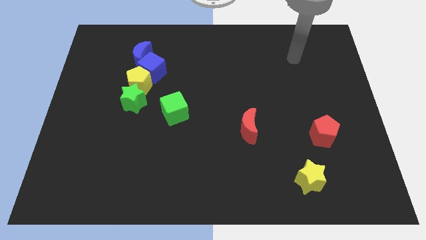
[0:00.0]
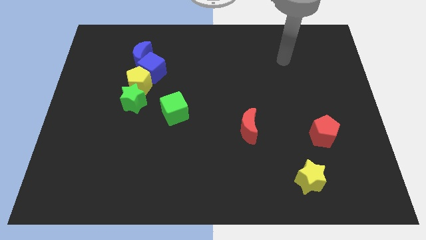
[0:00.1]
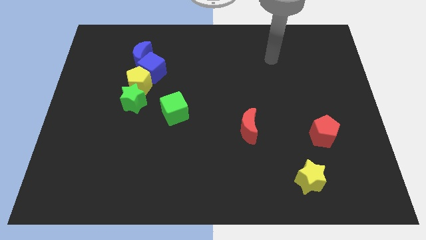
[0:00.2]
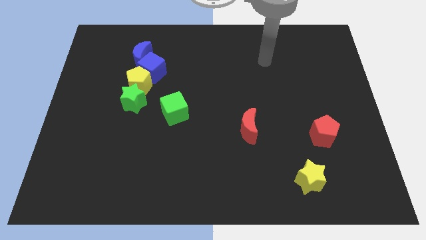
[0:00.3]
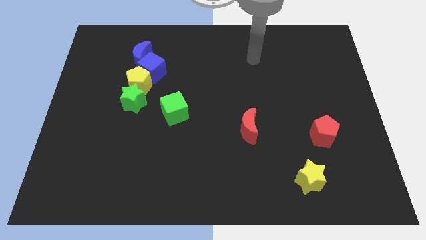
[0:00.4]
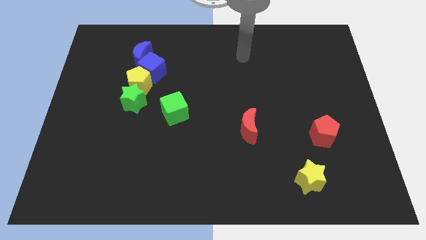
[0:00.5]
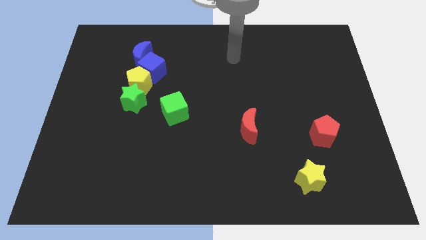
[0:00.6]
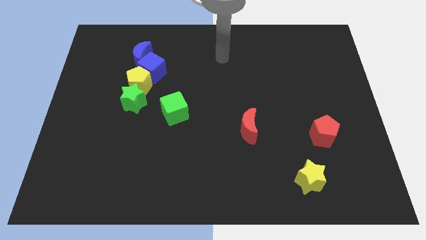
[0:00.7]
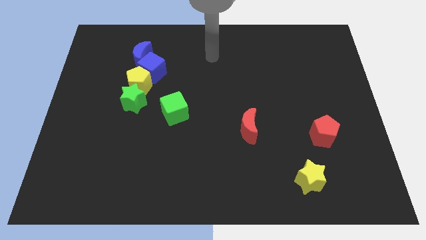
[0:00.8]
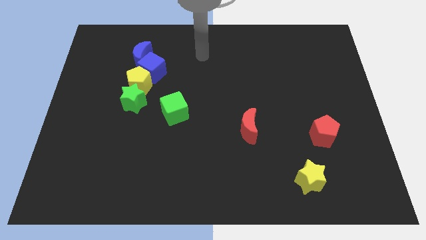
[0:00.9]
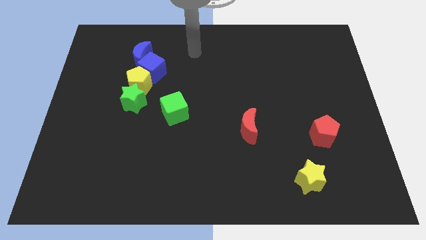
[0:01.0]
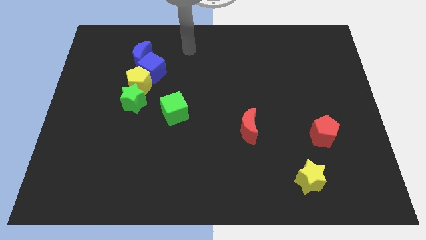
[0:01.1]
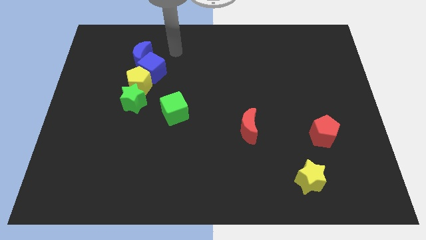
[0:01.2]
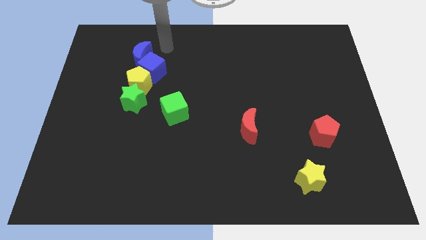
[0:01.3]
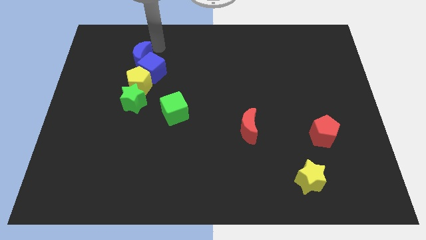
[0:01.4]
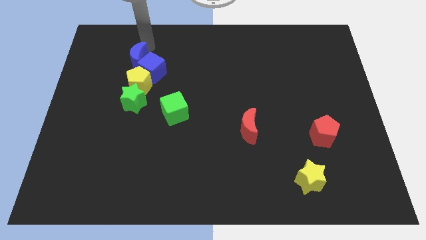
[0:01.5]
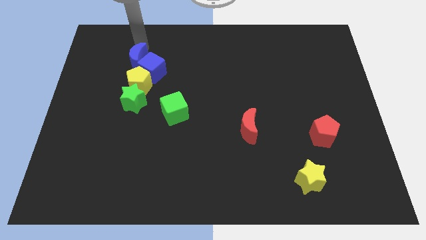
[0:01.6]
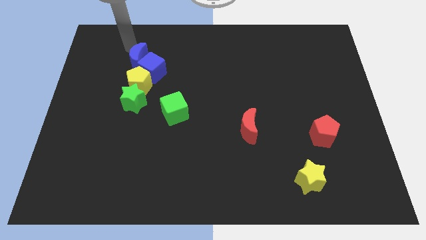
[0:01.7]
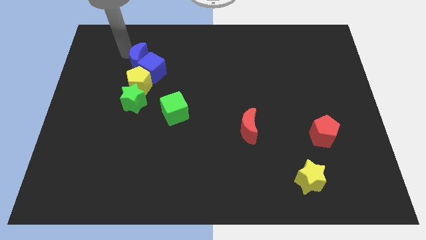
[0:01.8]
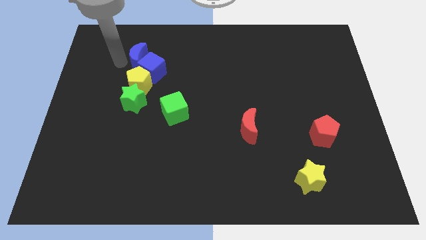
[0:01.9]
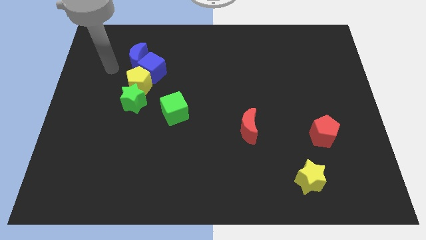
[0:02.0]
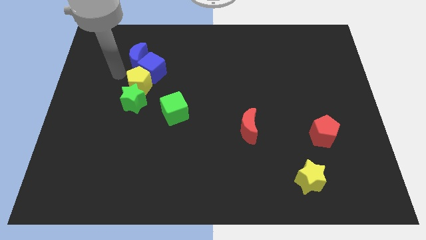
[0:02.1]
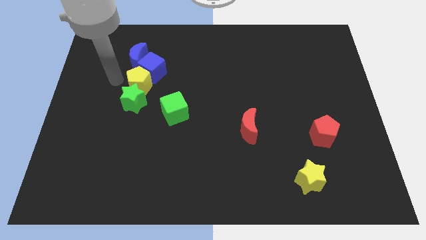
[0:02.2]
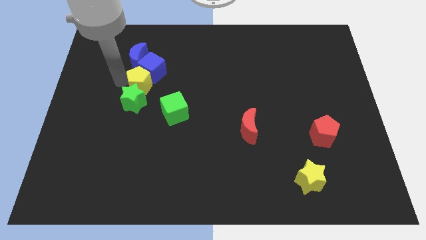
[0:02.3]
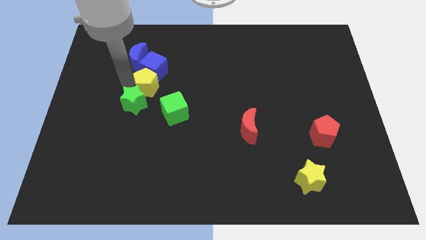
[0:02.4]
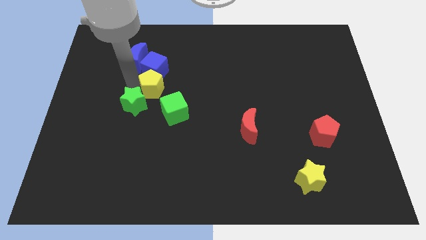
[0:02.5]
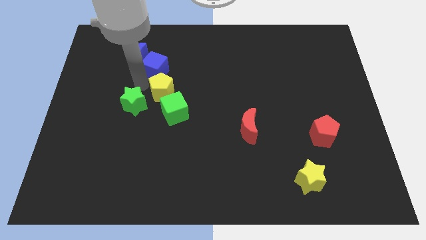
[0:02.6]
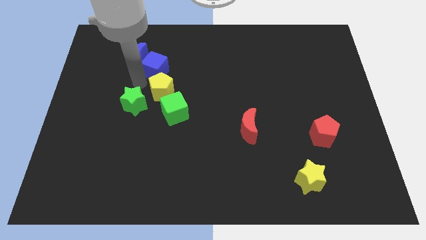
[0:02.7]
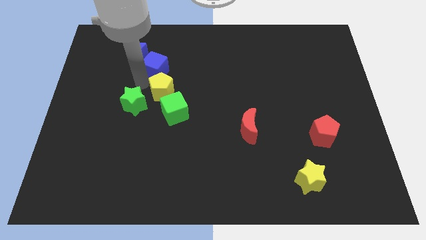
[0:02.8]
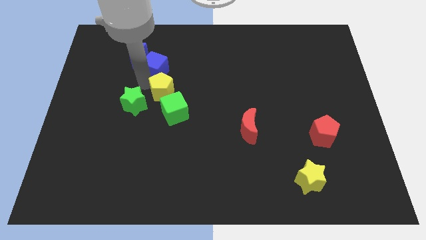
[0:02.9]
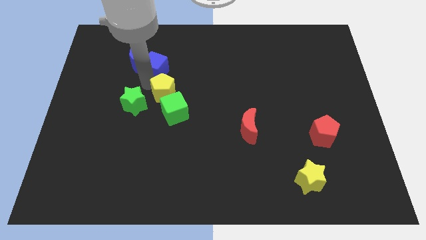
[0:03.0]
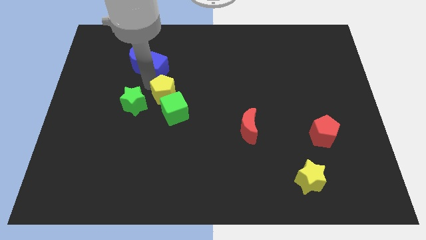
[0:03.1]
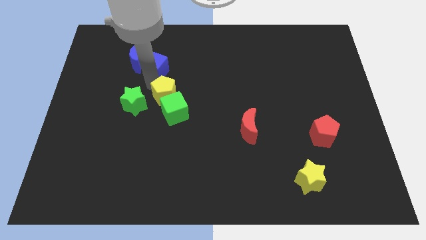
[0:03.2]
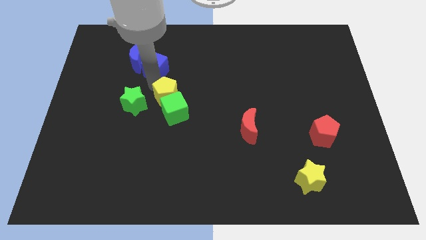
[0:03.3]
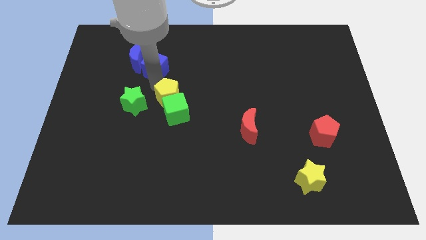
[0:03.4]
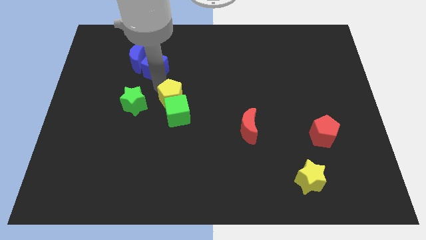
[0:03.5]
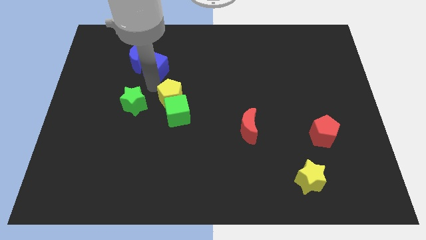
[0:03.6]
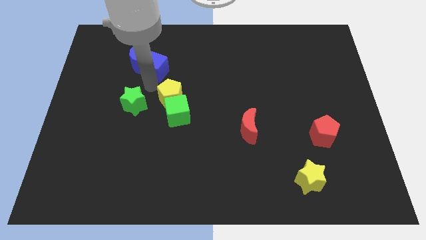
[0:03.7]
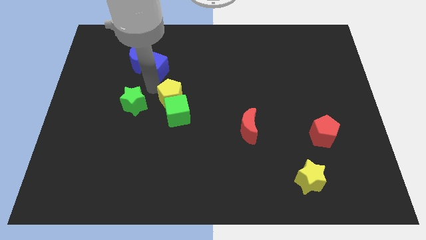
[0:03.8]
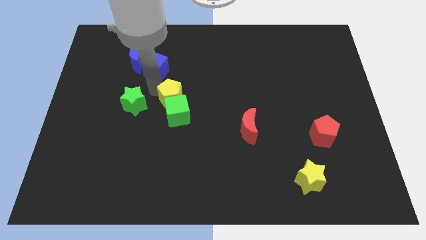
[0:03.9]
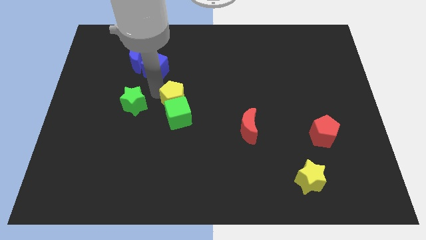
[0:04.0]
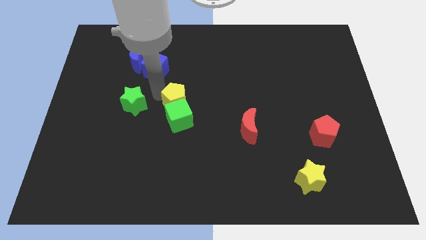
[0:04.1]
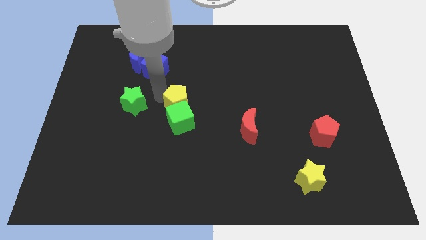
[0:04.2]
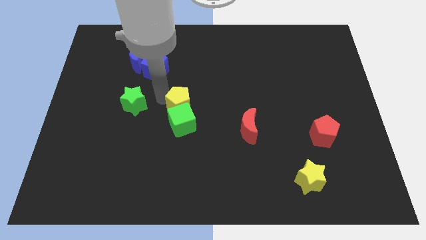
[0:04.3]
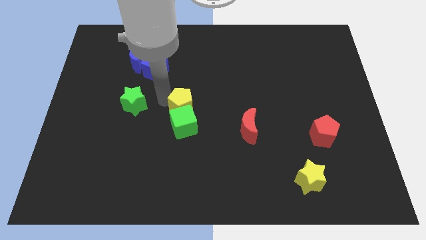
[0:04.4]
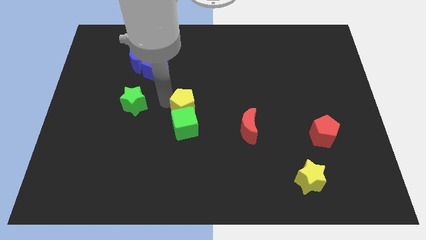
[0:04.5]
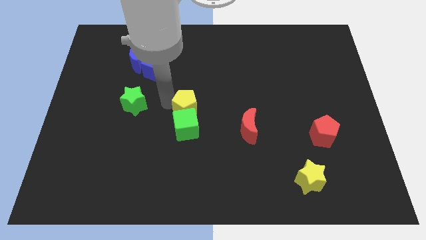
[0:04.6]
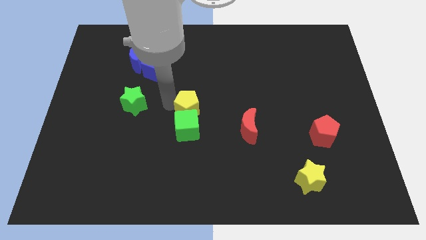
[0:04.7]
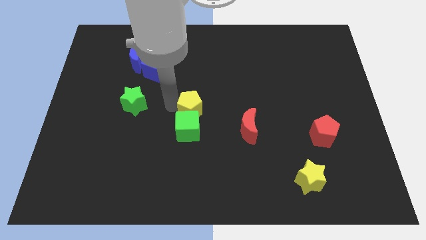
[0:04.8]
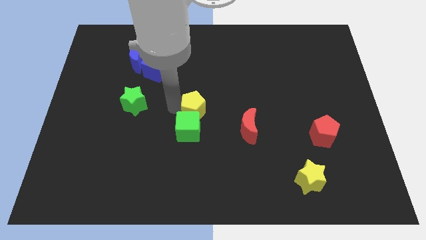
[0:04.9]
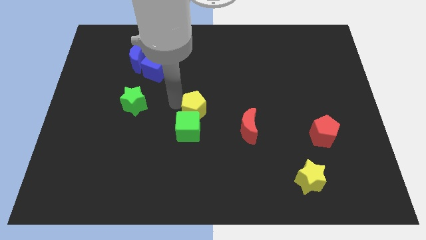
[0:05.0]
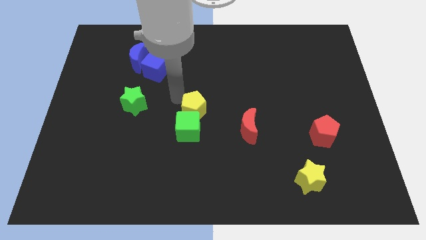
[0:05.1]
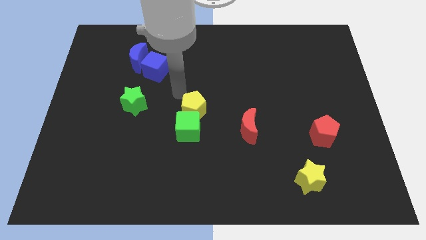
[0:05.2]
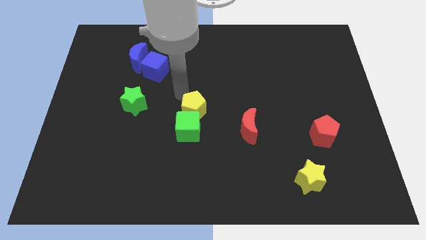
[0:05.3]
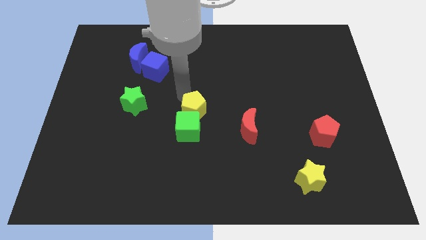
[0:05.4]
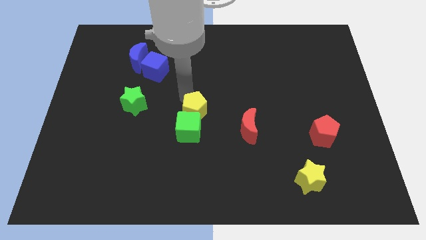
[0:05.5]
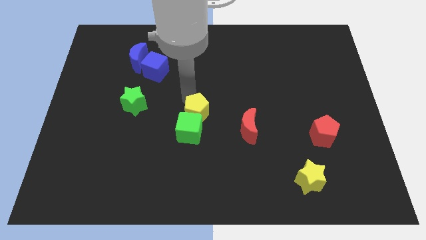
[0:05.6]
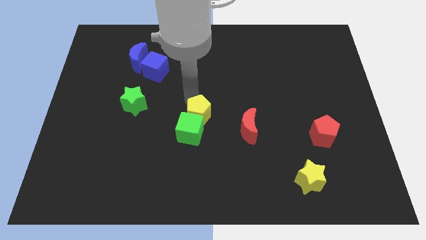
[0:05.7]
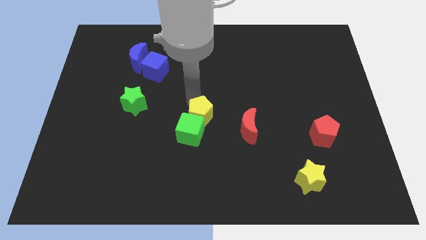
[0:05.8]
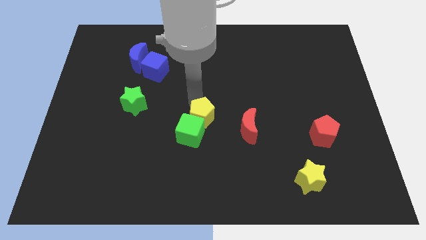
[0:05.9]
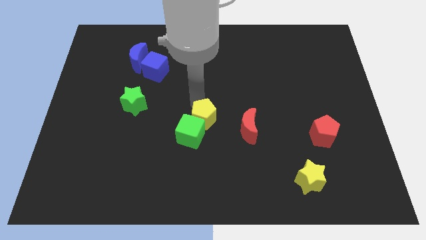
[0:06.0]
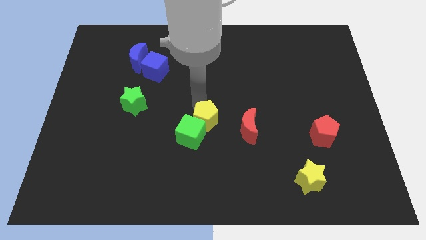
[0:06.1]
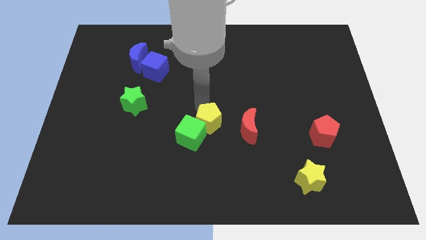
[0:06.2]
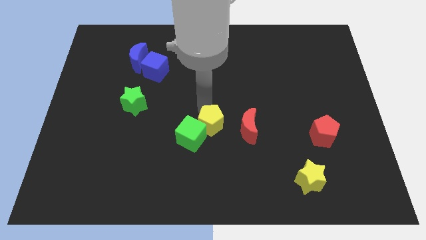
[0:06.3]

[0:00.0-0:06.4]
slide the yellow pentagon diagonally down and to the right

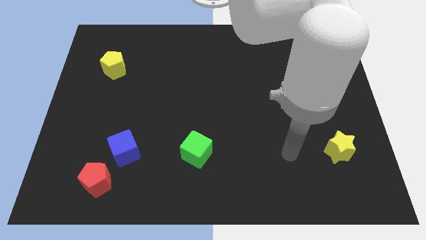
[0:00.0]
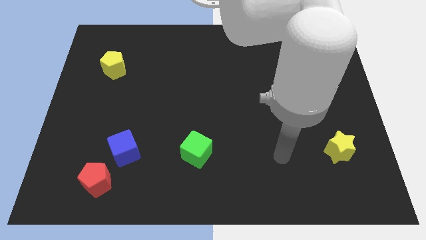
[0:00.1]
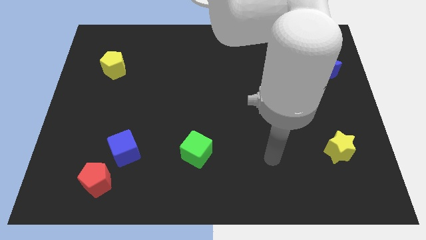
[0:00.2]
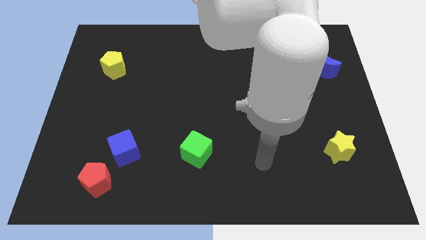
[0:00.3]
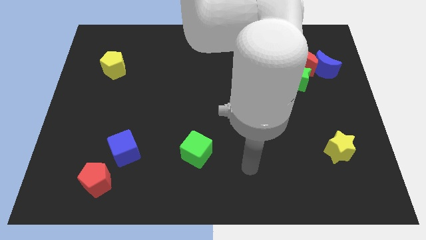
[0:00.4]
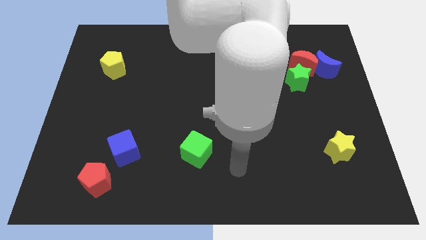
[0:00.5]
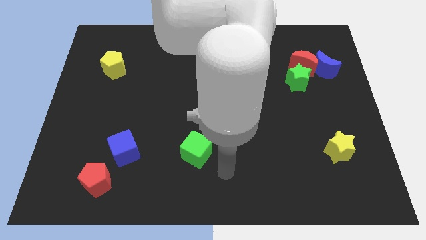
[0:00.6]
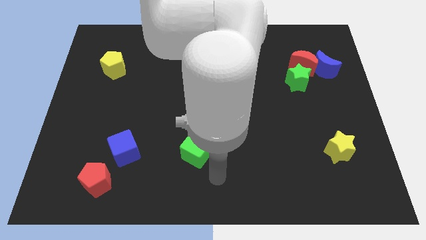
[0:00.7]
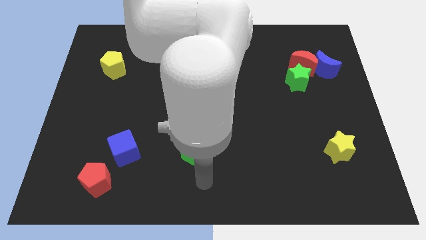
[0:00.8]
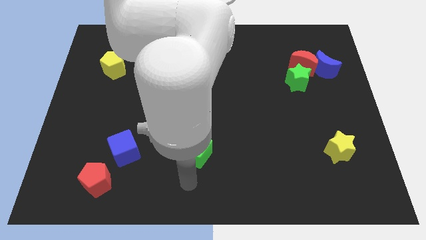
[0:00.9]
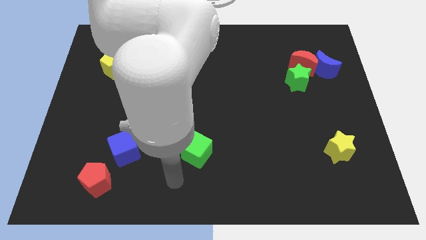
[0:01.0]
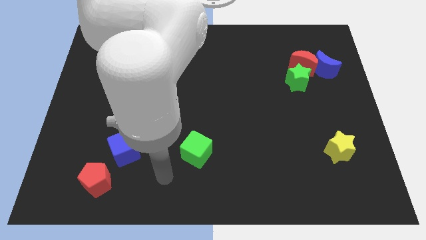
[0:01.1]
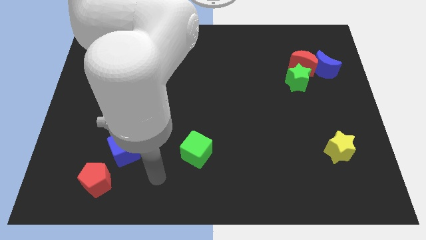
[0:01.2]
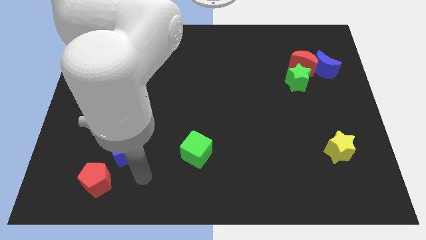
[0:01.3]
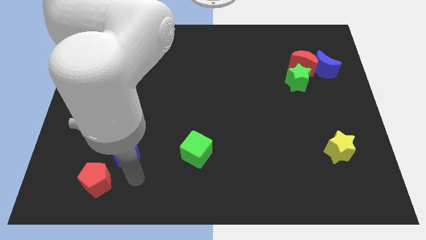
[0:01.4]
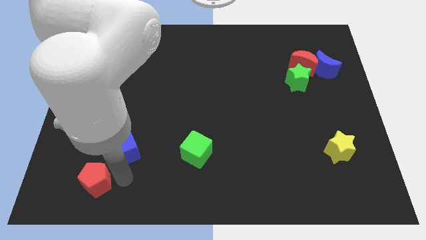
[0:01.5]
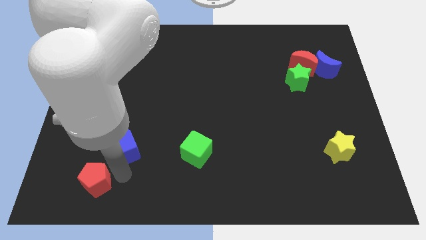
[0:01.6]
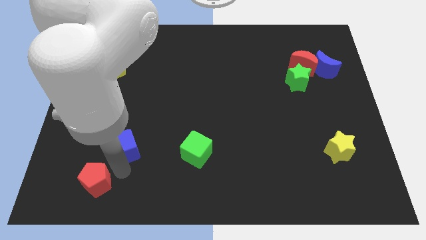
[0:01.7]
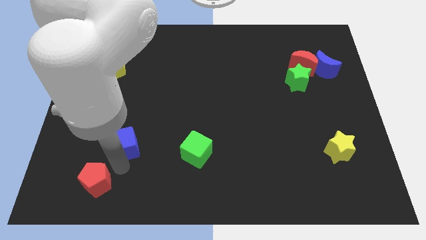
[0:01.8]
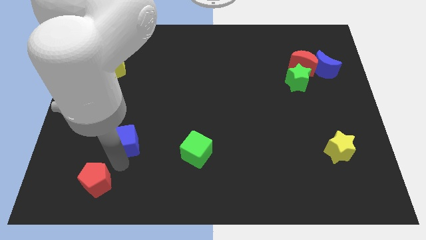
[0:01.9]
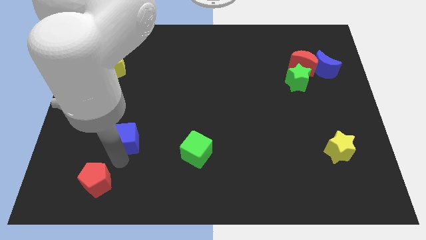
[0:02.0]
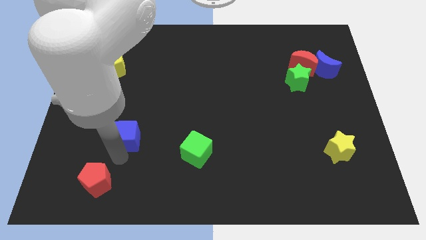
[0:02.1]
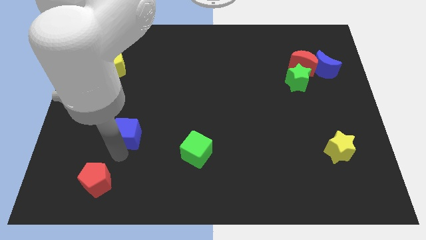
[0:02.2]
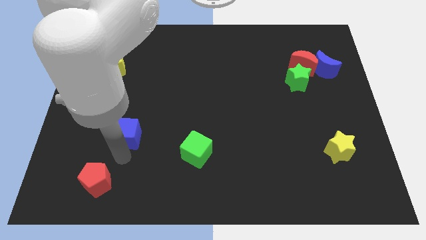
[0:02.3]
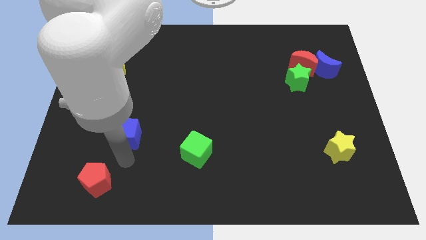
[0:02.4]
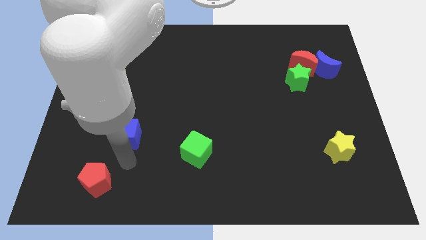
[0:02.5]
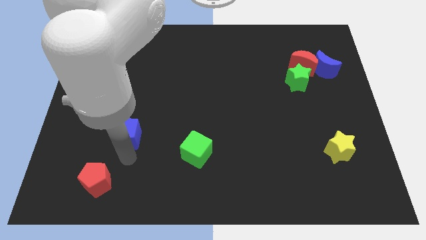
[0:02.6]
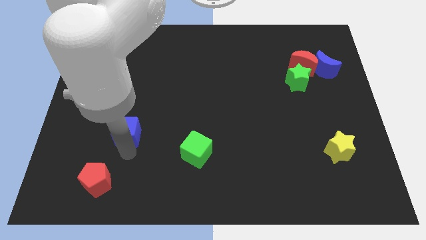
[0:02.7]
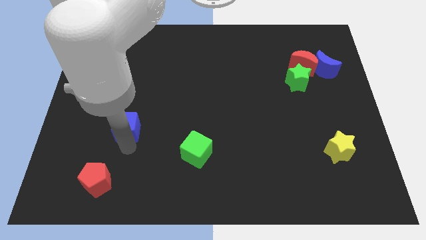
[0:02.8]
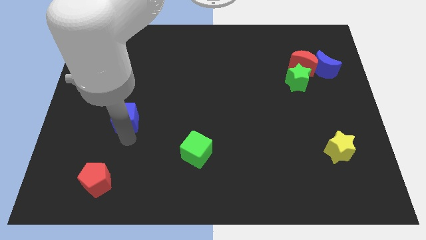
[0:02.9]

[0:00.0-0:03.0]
push the blue cube somewhat up
